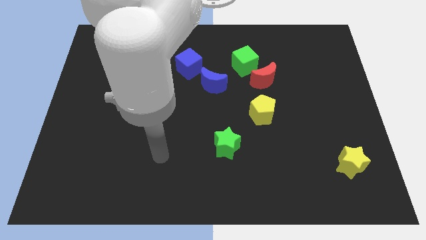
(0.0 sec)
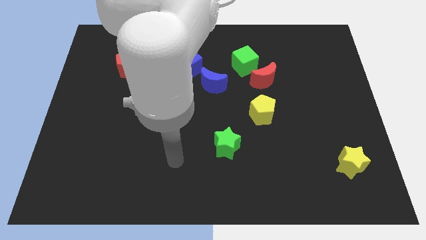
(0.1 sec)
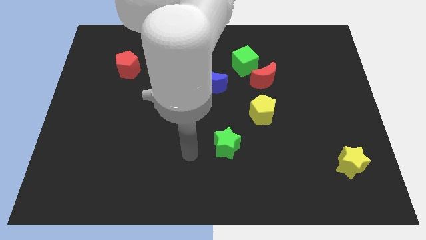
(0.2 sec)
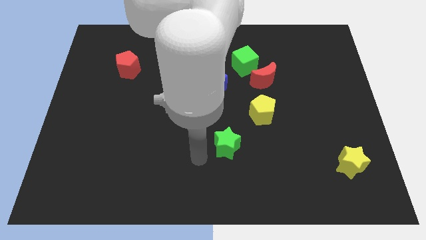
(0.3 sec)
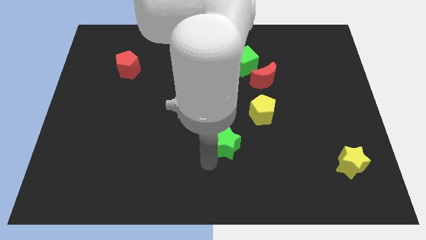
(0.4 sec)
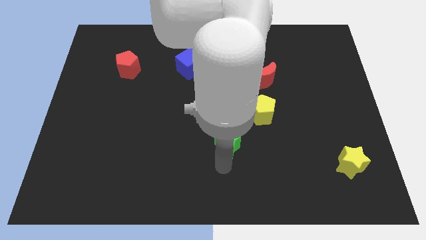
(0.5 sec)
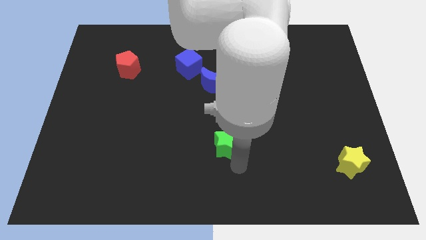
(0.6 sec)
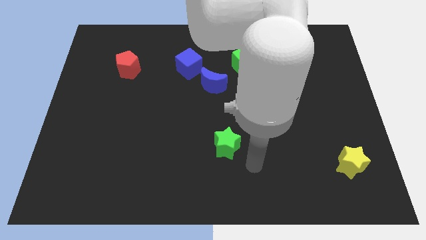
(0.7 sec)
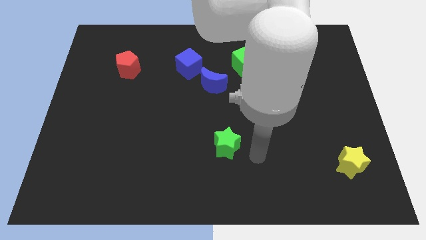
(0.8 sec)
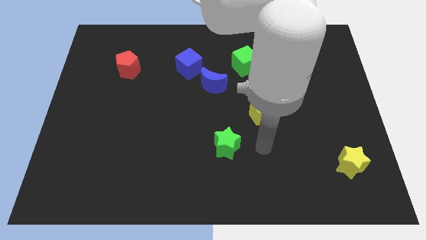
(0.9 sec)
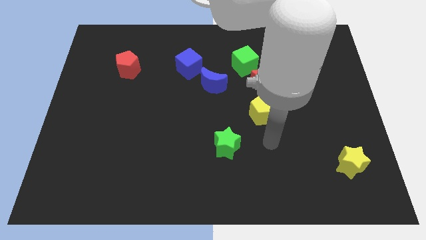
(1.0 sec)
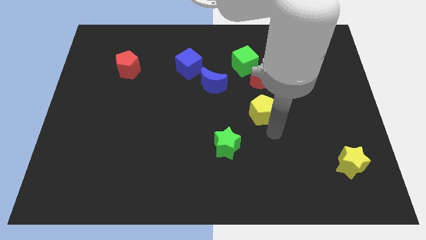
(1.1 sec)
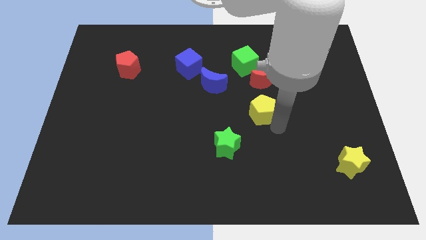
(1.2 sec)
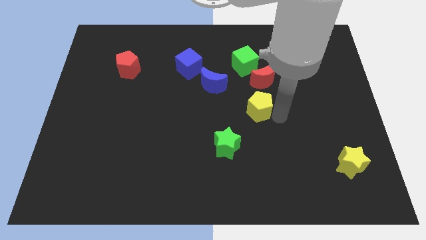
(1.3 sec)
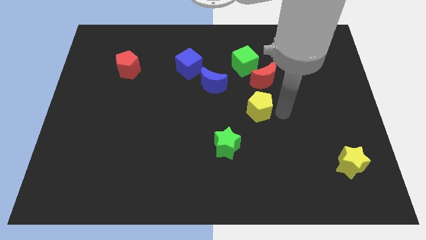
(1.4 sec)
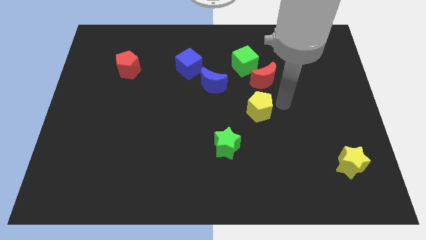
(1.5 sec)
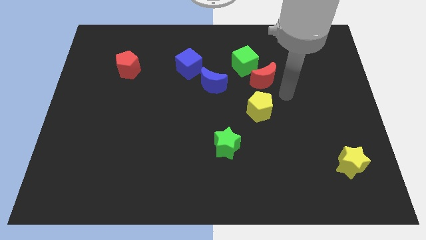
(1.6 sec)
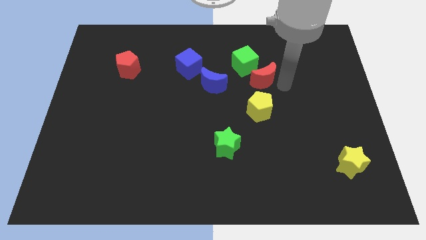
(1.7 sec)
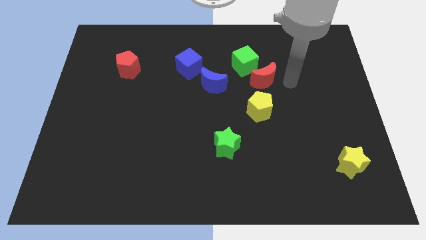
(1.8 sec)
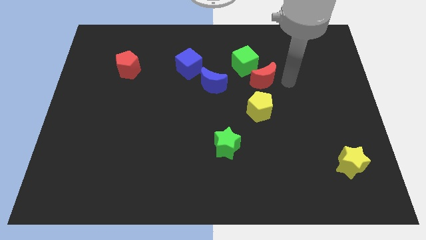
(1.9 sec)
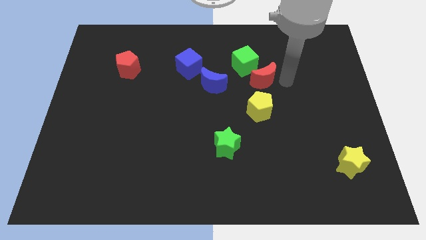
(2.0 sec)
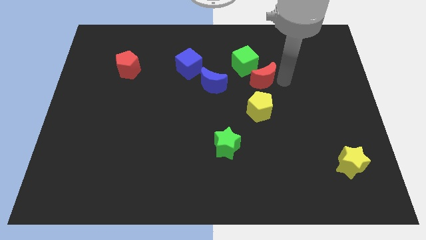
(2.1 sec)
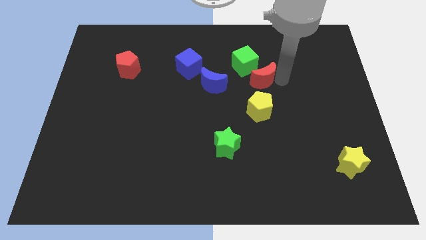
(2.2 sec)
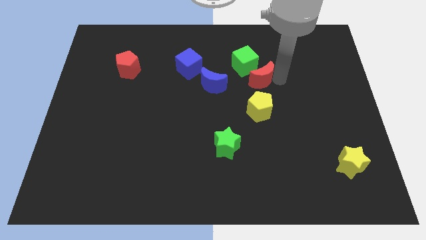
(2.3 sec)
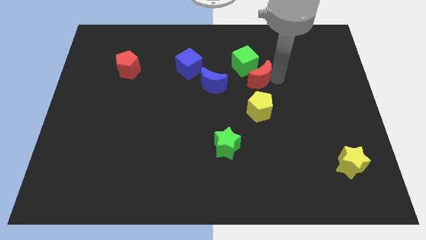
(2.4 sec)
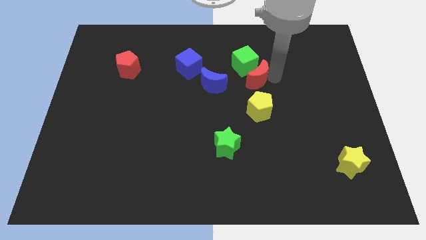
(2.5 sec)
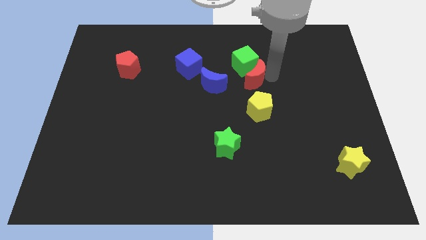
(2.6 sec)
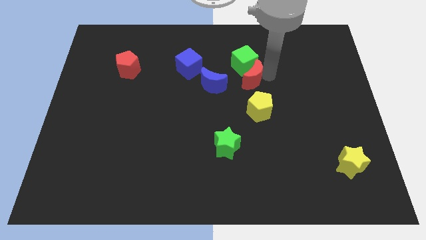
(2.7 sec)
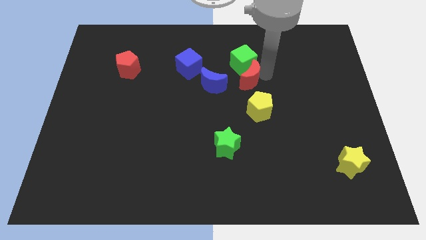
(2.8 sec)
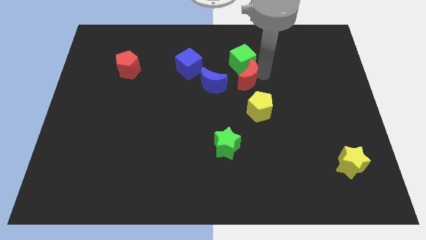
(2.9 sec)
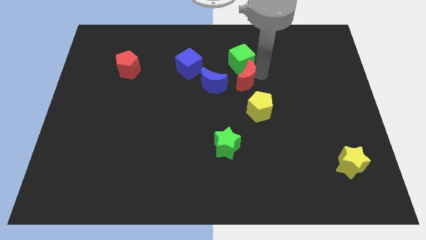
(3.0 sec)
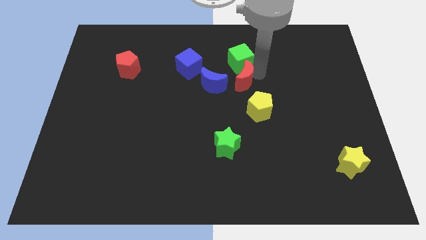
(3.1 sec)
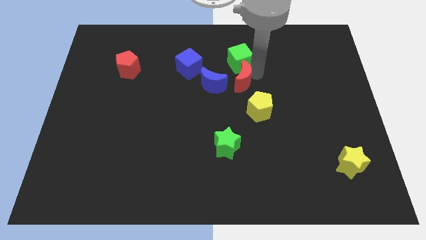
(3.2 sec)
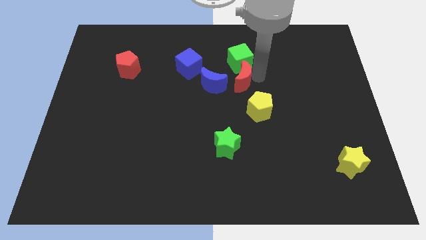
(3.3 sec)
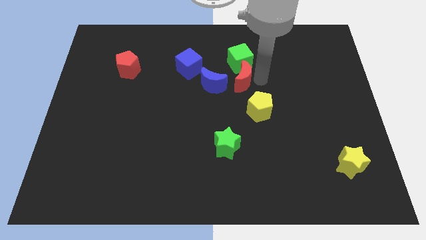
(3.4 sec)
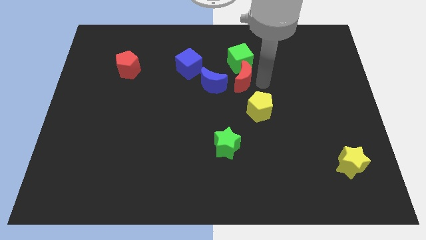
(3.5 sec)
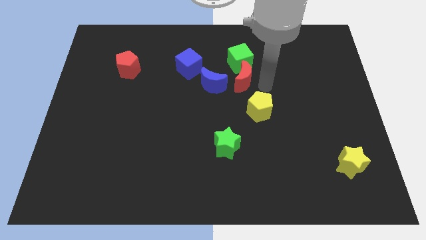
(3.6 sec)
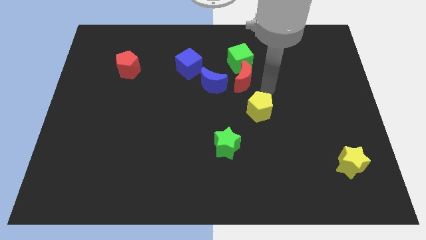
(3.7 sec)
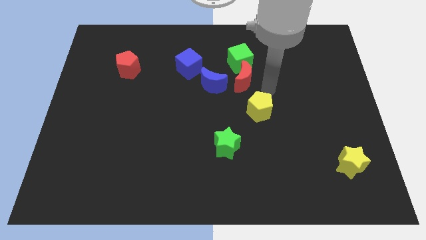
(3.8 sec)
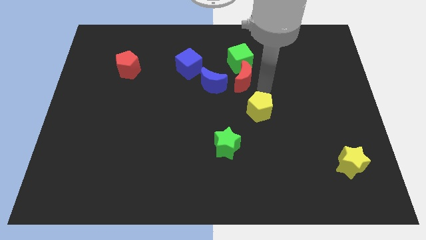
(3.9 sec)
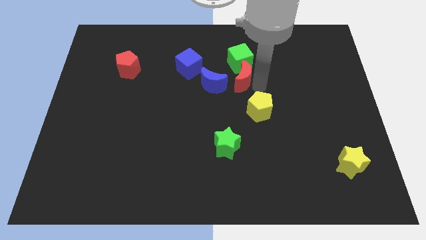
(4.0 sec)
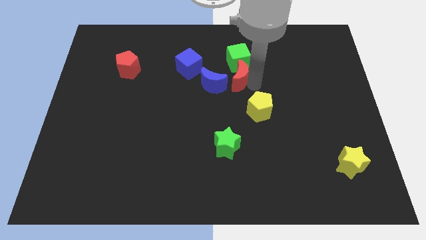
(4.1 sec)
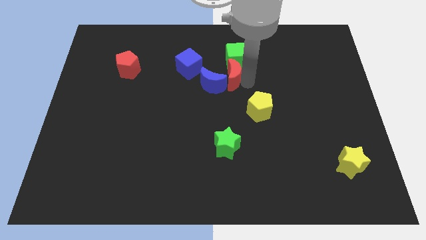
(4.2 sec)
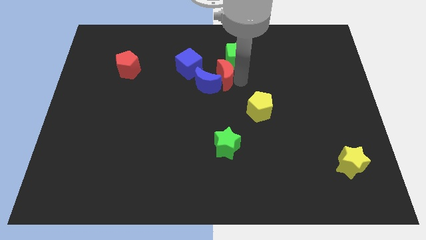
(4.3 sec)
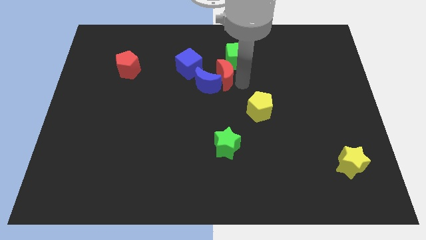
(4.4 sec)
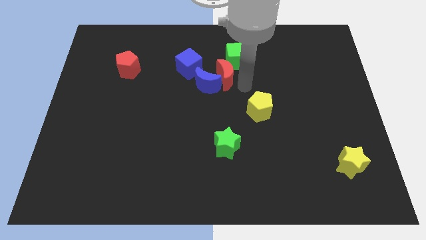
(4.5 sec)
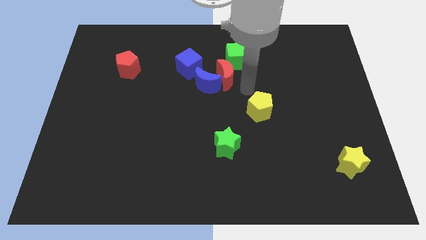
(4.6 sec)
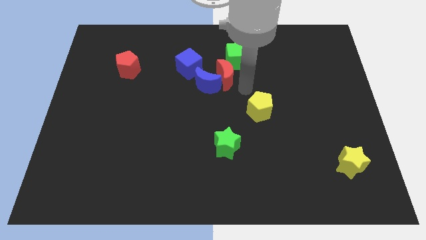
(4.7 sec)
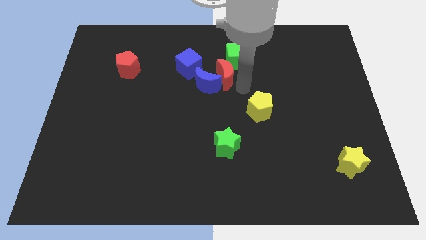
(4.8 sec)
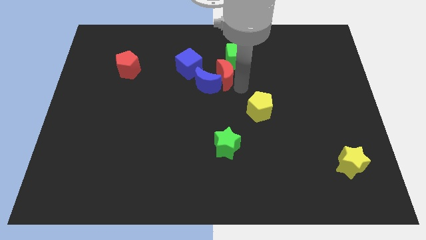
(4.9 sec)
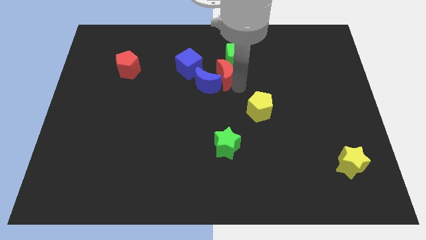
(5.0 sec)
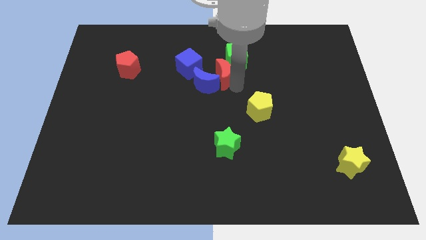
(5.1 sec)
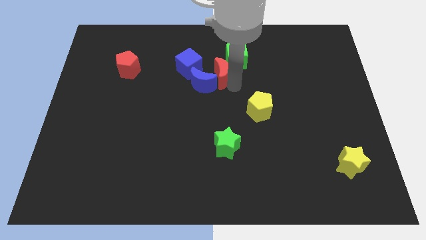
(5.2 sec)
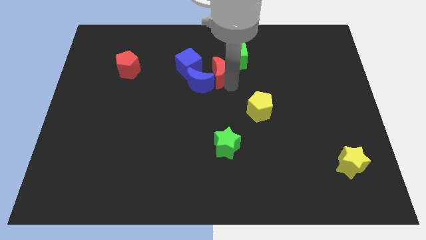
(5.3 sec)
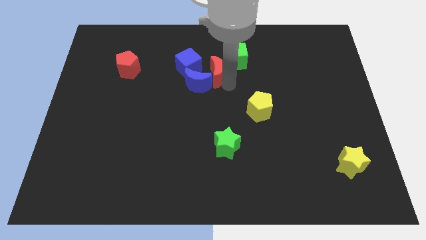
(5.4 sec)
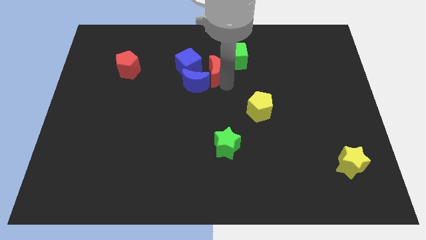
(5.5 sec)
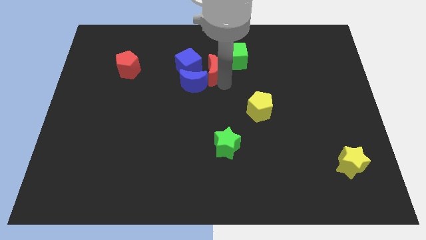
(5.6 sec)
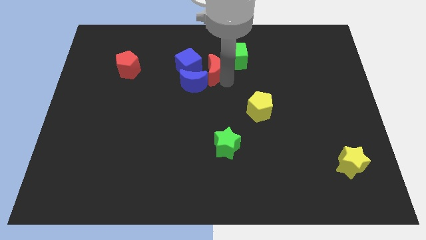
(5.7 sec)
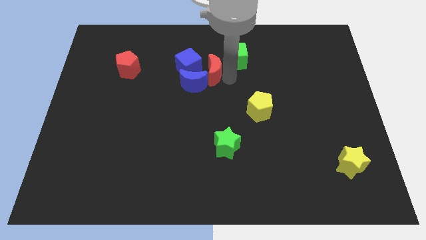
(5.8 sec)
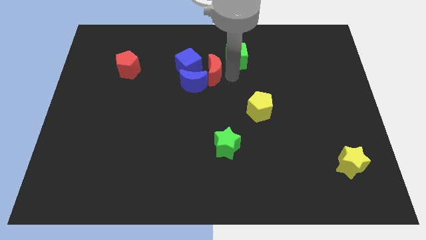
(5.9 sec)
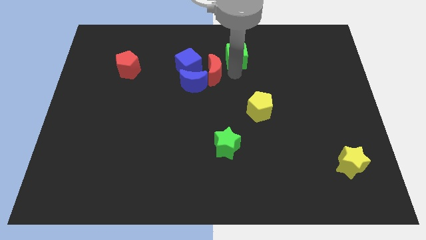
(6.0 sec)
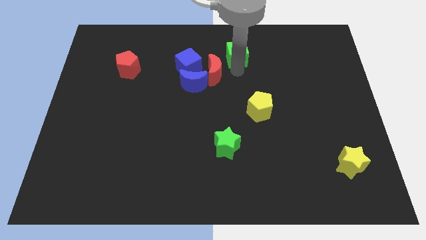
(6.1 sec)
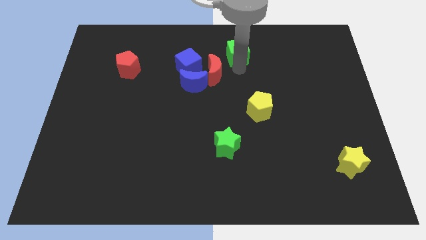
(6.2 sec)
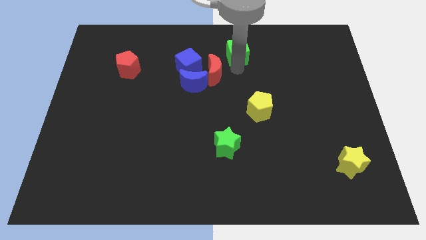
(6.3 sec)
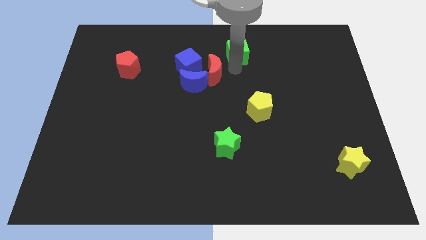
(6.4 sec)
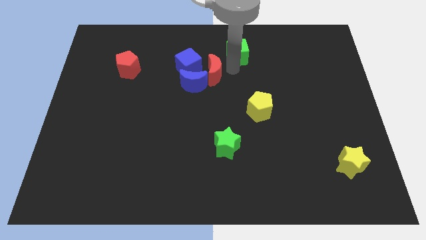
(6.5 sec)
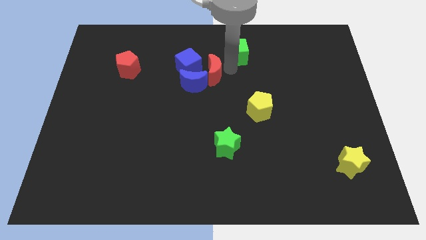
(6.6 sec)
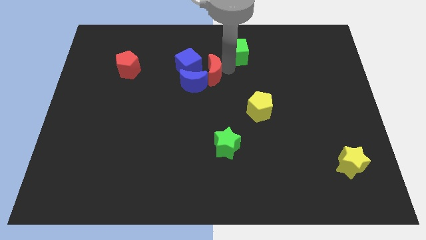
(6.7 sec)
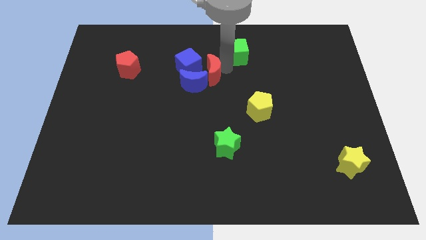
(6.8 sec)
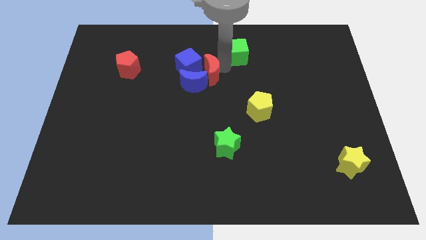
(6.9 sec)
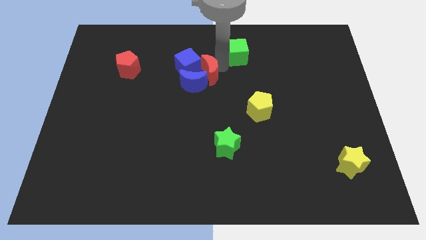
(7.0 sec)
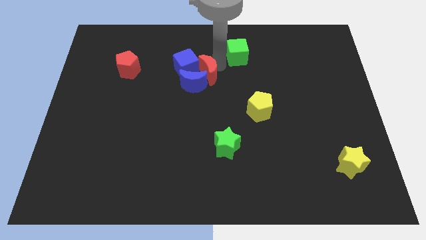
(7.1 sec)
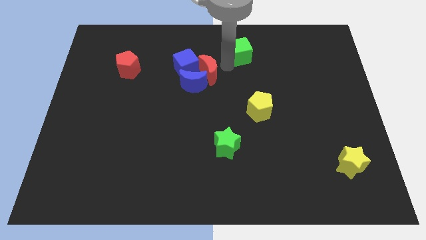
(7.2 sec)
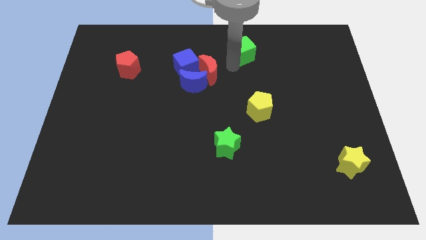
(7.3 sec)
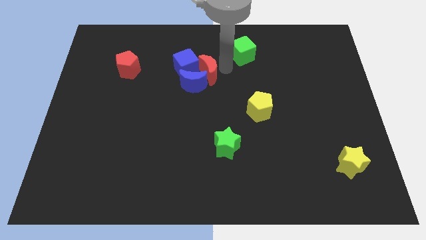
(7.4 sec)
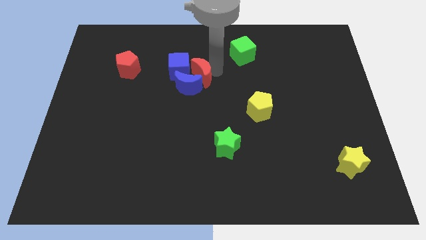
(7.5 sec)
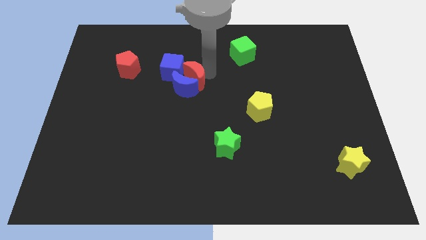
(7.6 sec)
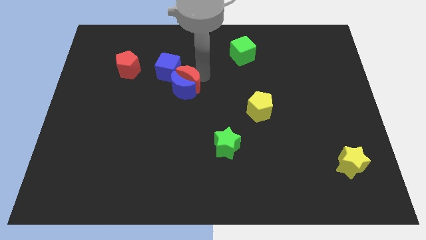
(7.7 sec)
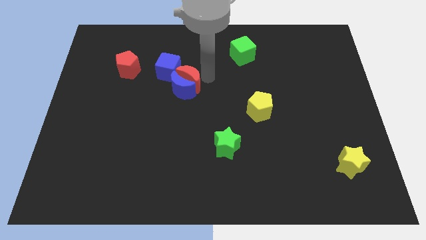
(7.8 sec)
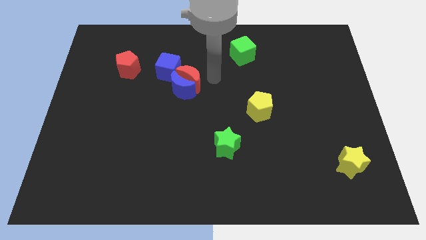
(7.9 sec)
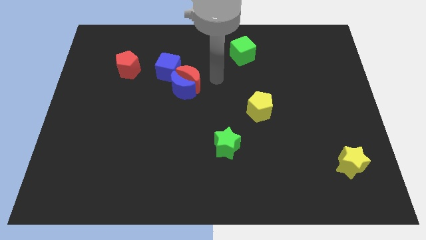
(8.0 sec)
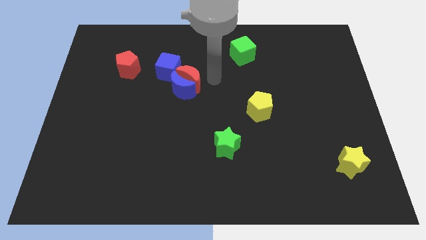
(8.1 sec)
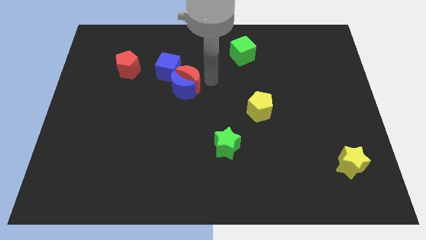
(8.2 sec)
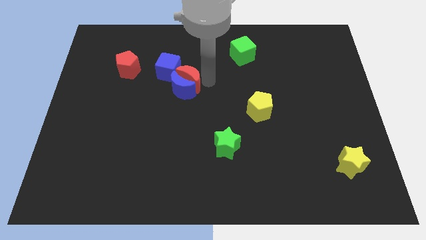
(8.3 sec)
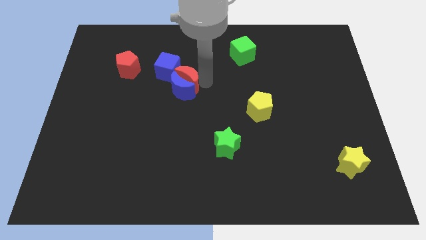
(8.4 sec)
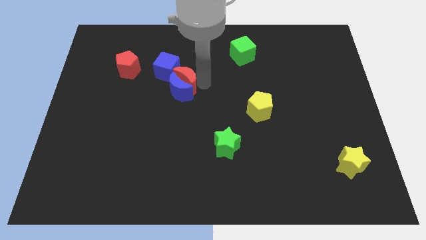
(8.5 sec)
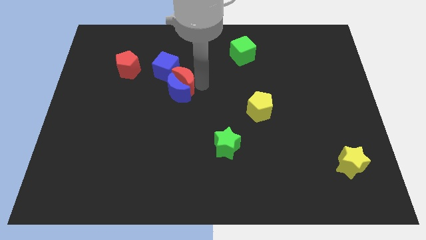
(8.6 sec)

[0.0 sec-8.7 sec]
slide the red moon to the left
